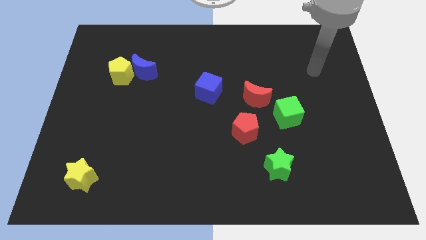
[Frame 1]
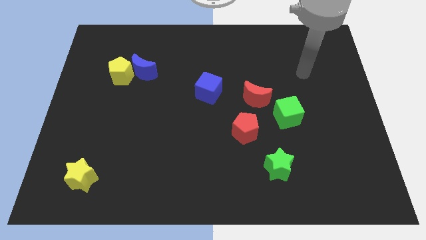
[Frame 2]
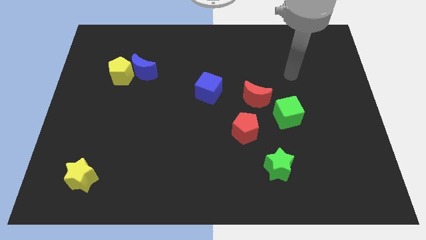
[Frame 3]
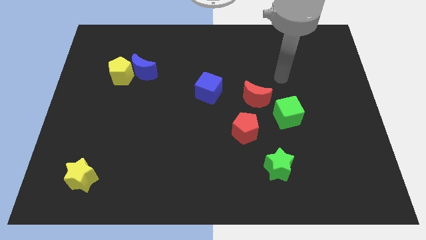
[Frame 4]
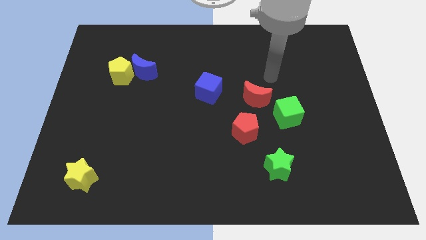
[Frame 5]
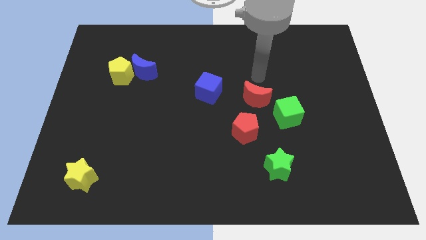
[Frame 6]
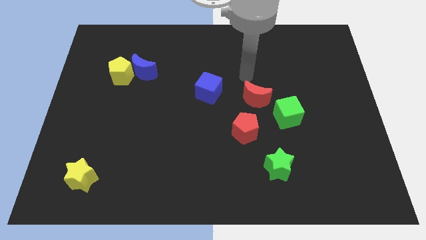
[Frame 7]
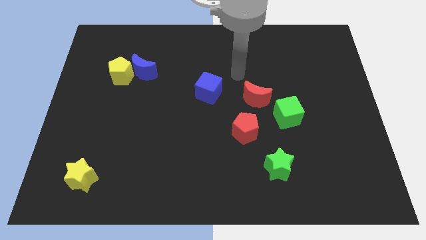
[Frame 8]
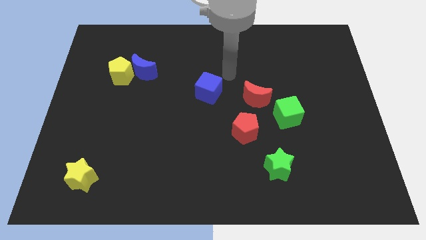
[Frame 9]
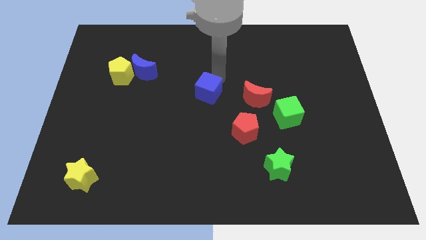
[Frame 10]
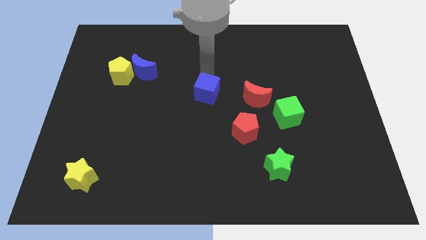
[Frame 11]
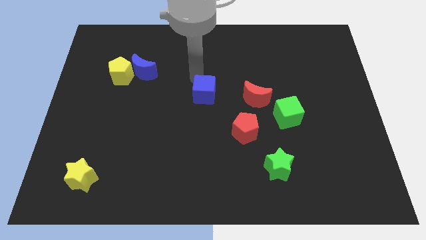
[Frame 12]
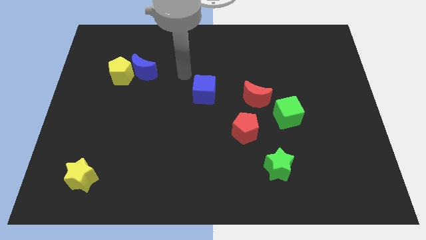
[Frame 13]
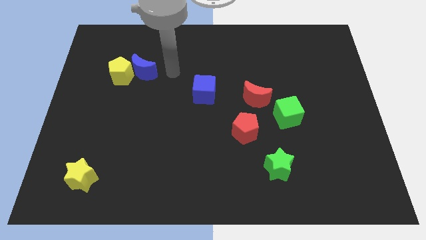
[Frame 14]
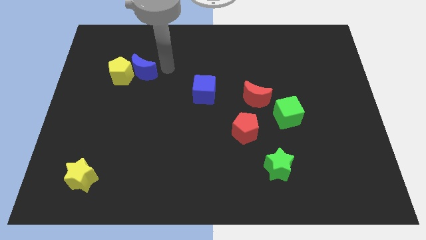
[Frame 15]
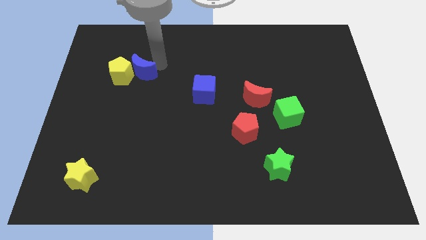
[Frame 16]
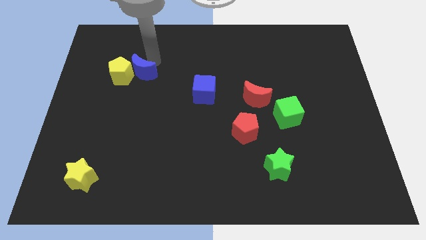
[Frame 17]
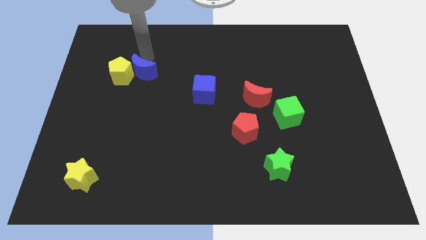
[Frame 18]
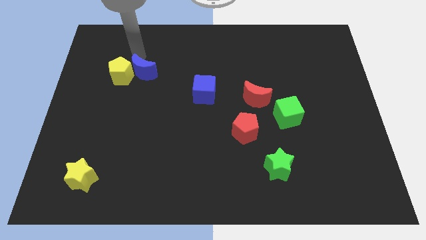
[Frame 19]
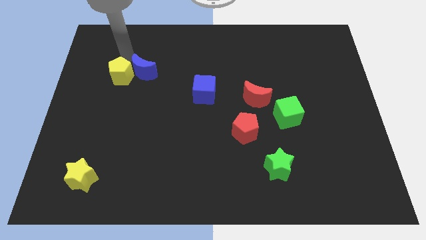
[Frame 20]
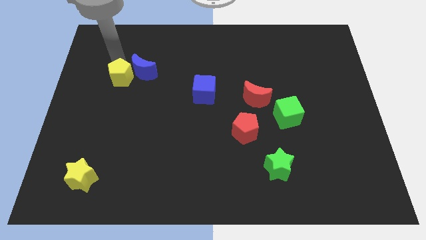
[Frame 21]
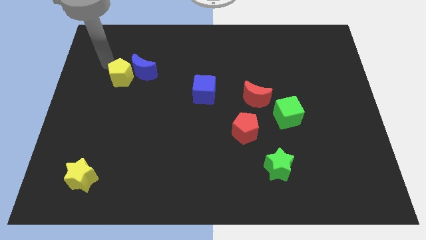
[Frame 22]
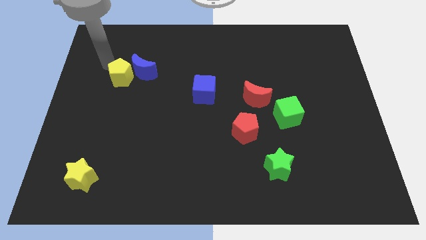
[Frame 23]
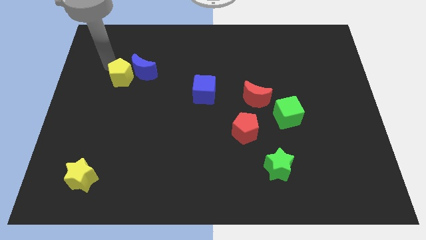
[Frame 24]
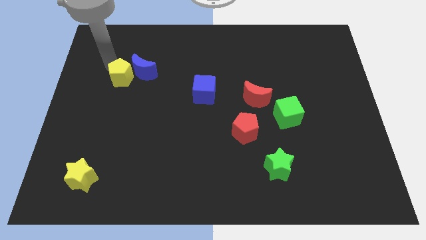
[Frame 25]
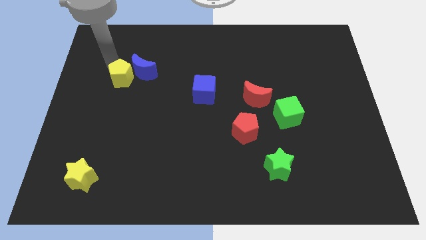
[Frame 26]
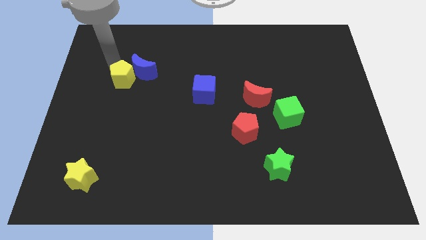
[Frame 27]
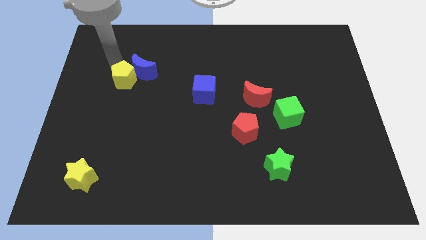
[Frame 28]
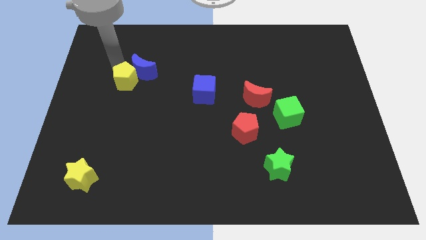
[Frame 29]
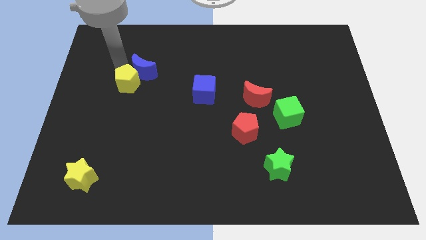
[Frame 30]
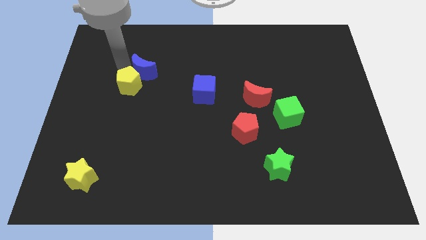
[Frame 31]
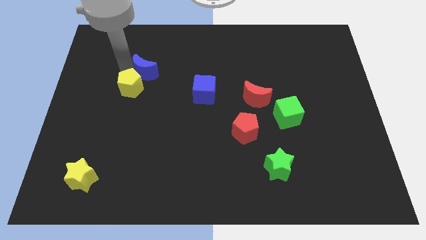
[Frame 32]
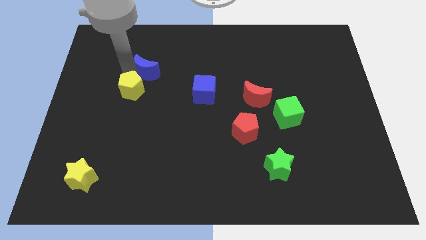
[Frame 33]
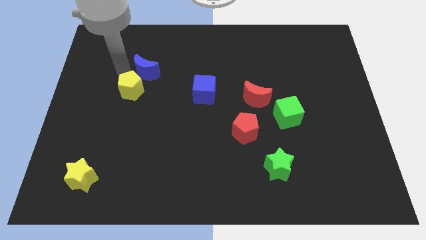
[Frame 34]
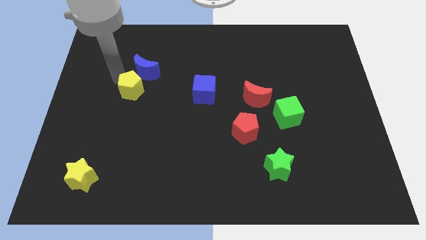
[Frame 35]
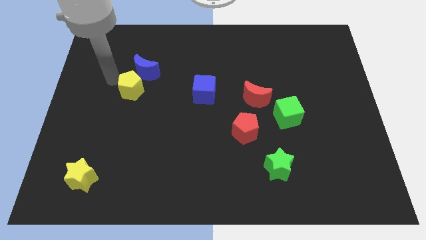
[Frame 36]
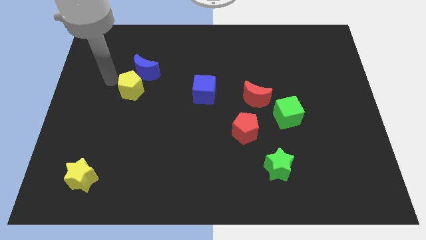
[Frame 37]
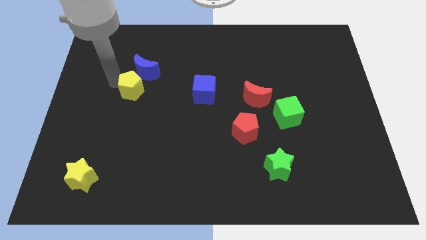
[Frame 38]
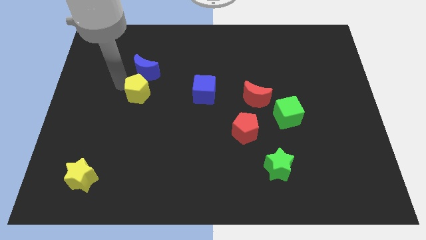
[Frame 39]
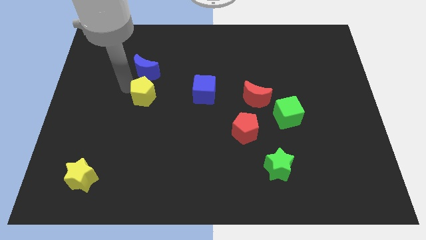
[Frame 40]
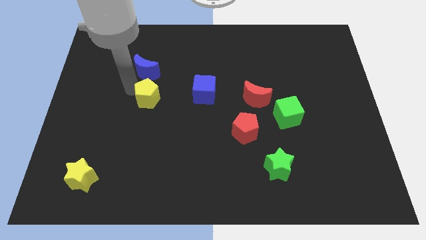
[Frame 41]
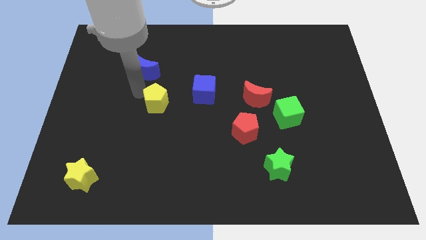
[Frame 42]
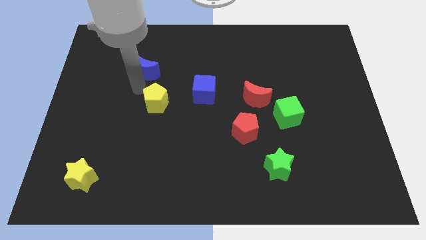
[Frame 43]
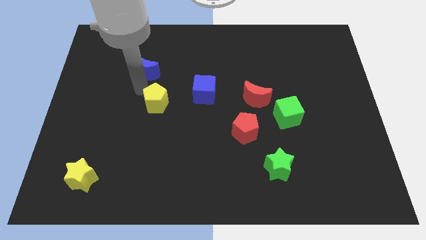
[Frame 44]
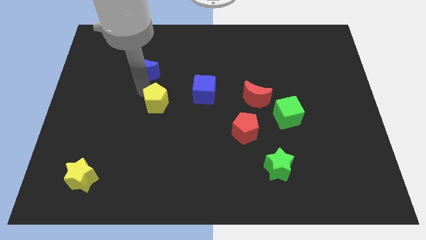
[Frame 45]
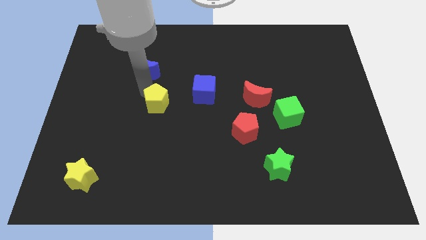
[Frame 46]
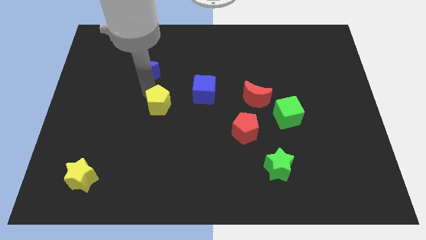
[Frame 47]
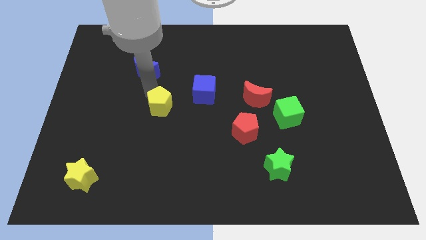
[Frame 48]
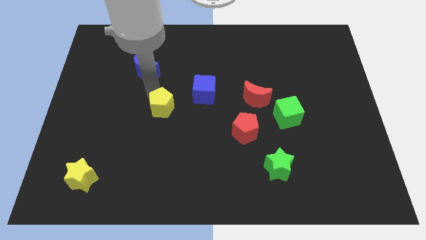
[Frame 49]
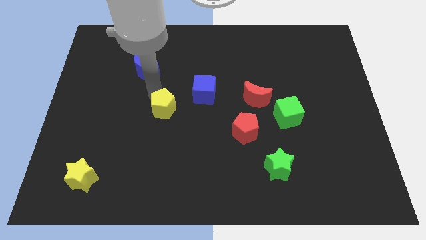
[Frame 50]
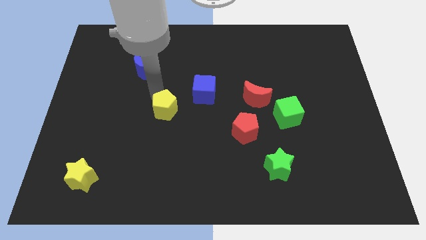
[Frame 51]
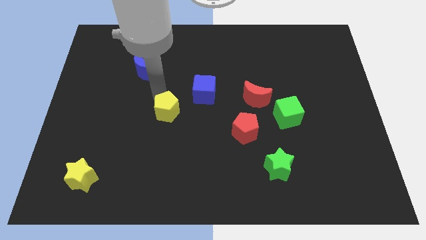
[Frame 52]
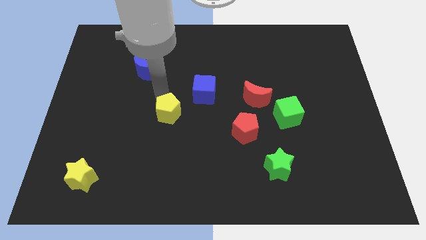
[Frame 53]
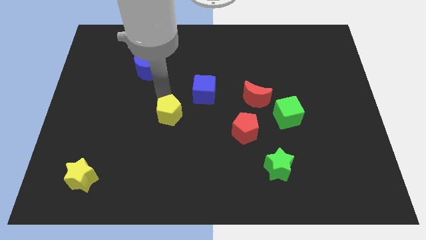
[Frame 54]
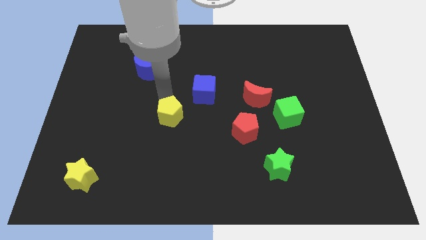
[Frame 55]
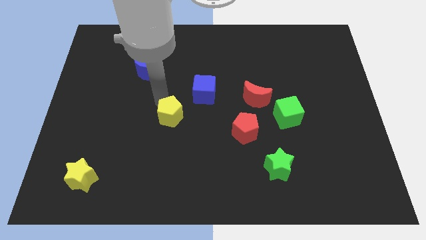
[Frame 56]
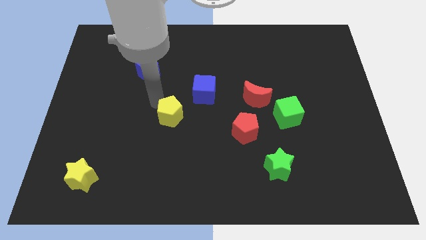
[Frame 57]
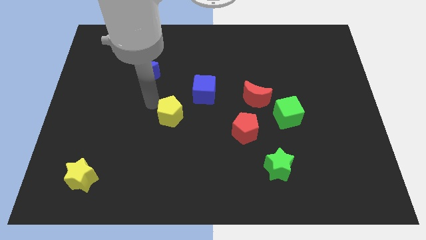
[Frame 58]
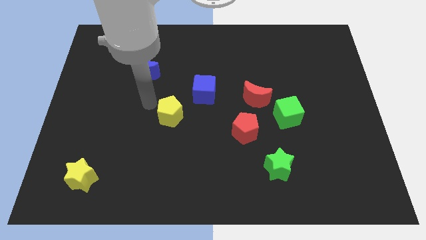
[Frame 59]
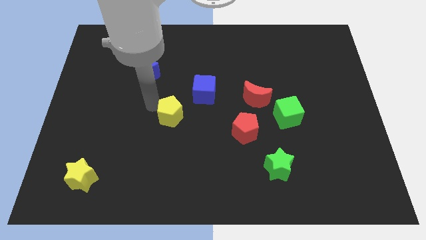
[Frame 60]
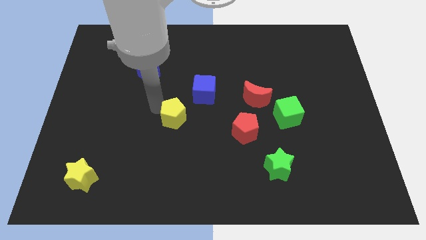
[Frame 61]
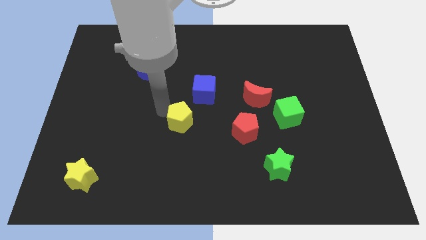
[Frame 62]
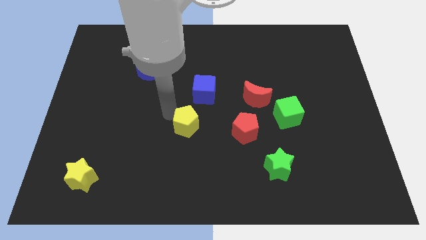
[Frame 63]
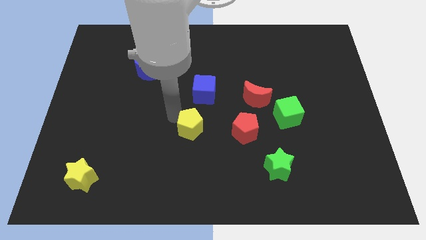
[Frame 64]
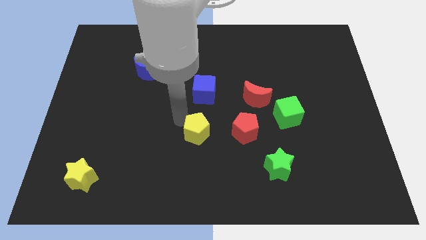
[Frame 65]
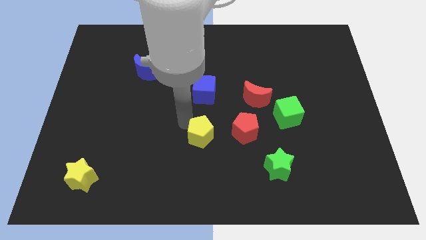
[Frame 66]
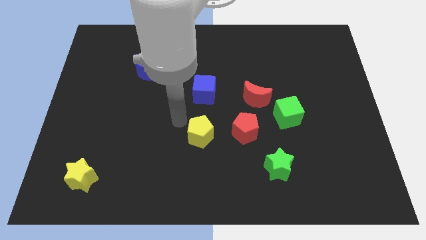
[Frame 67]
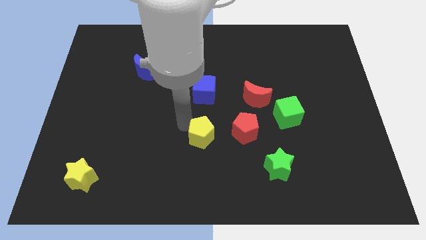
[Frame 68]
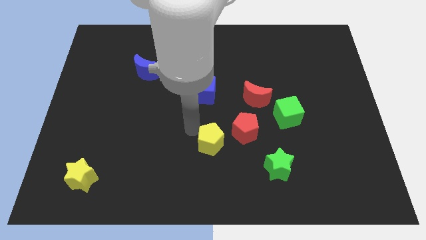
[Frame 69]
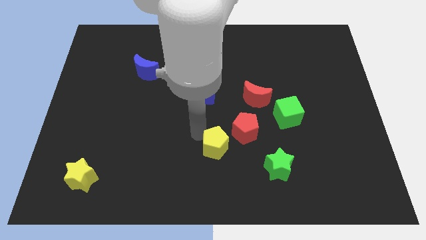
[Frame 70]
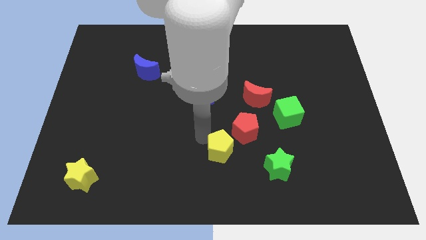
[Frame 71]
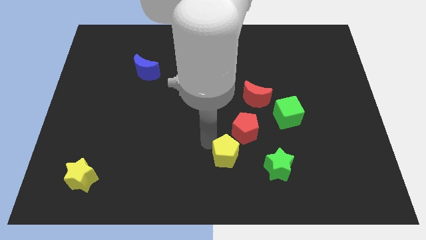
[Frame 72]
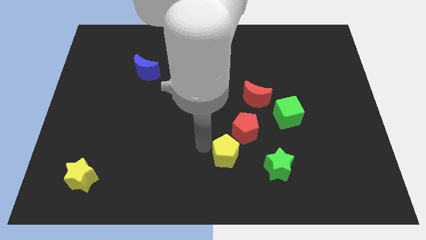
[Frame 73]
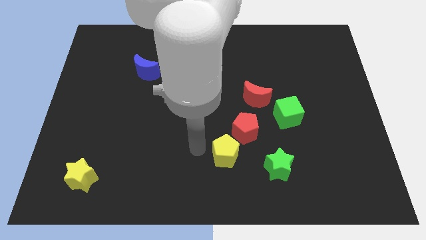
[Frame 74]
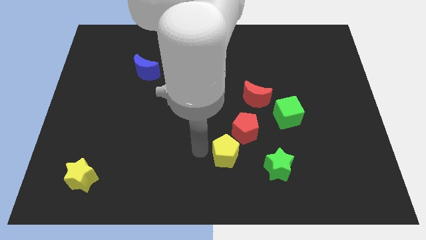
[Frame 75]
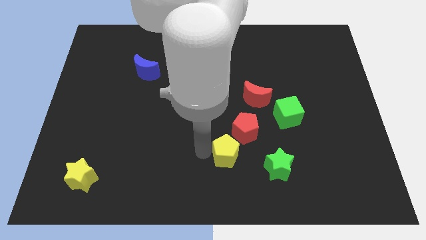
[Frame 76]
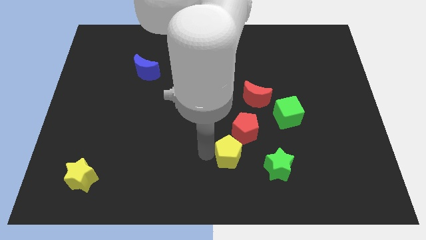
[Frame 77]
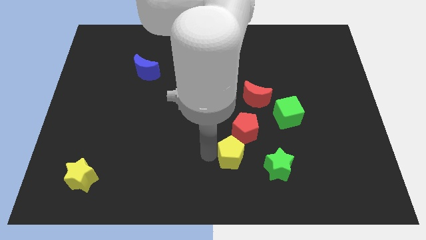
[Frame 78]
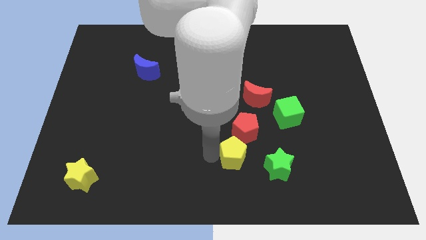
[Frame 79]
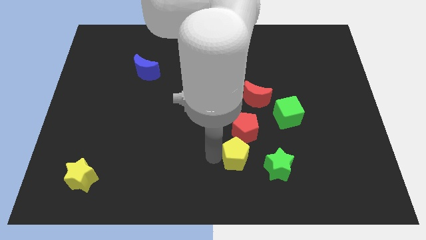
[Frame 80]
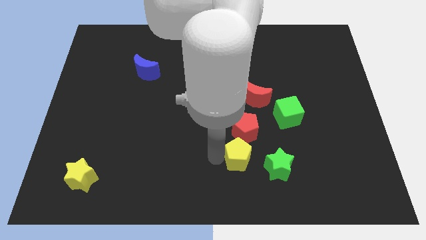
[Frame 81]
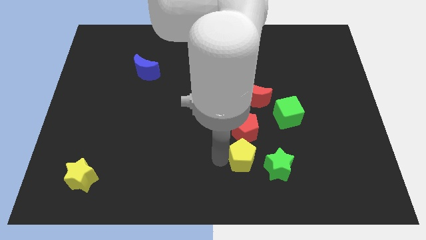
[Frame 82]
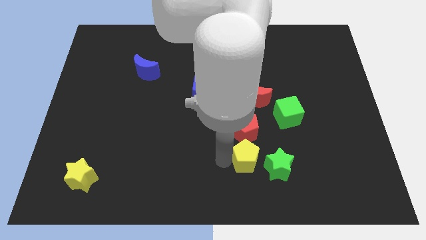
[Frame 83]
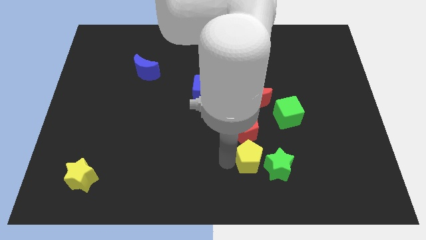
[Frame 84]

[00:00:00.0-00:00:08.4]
push the yellow pentagon next to the green star

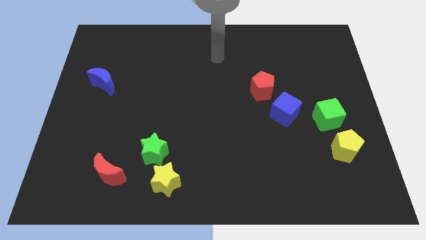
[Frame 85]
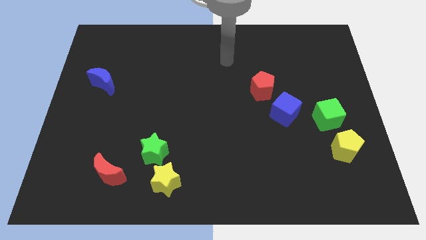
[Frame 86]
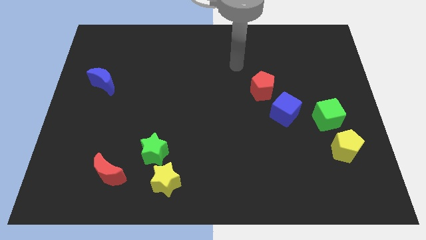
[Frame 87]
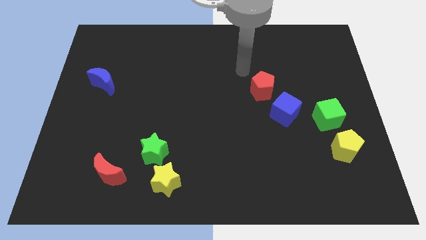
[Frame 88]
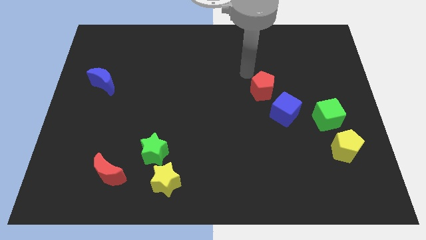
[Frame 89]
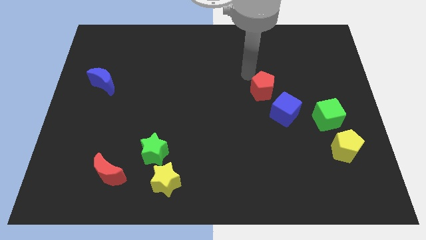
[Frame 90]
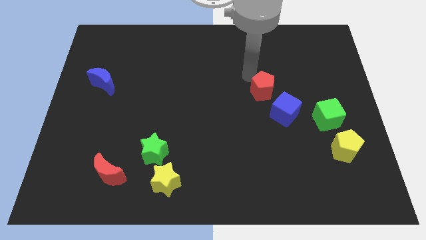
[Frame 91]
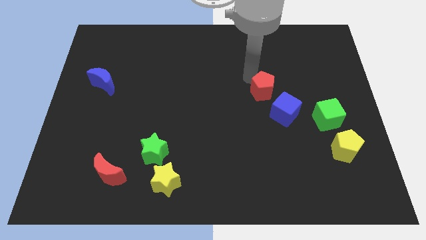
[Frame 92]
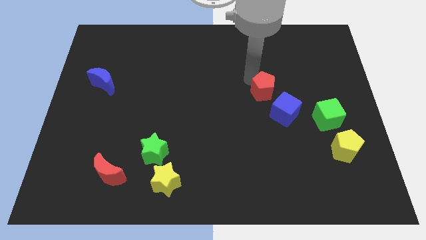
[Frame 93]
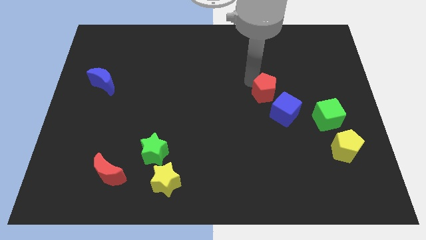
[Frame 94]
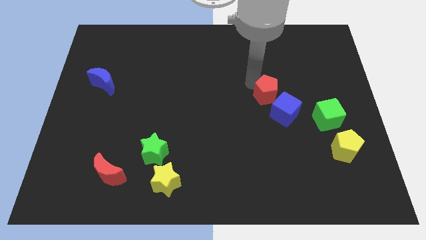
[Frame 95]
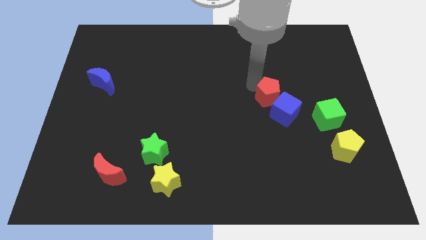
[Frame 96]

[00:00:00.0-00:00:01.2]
slide the red pentagon to the blue cube
